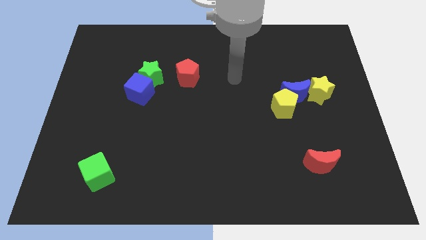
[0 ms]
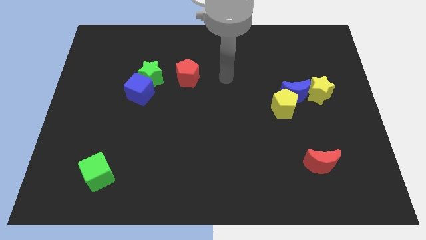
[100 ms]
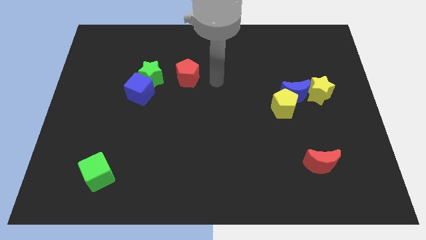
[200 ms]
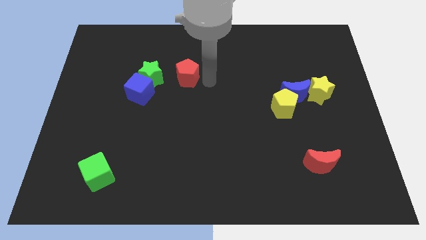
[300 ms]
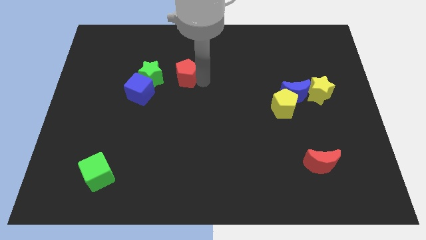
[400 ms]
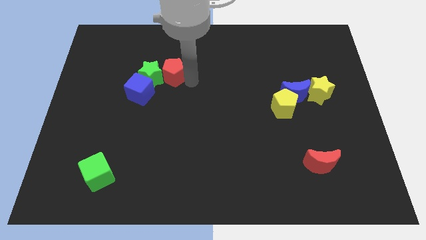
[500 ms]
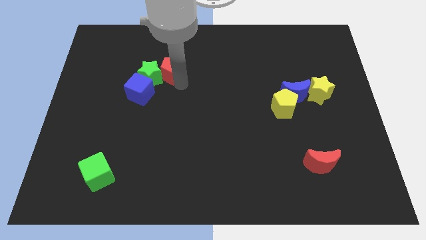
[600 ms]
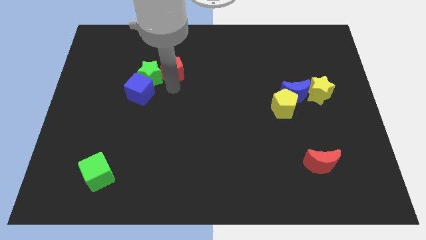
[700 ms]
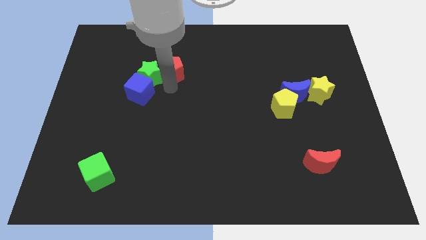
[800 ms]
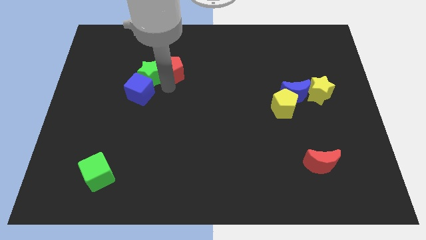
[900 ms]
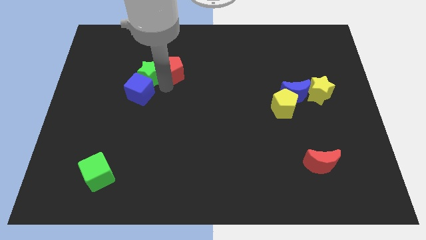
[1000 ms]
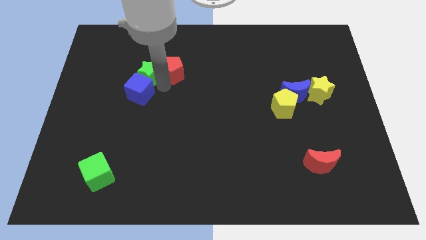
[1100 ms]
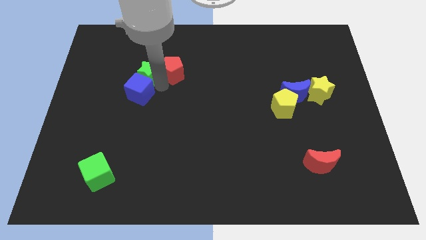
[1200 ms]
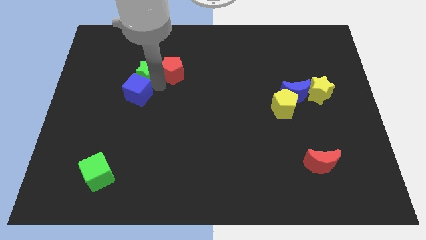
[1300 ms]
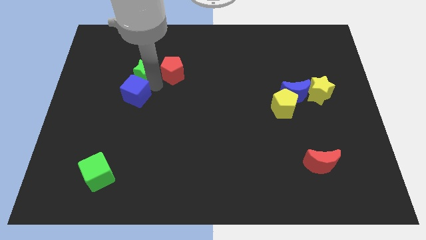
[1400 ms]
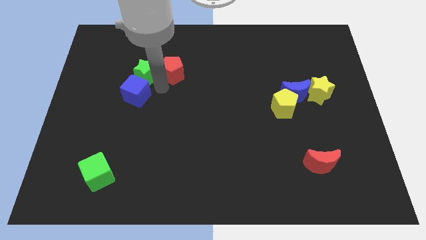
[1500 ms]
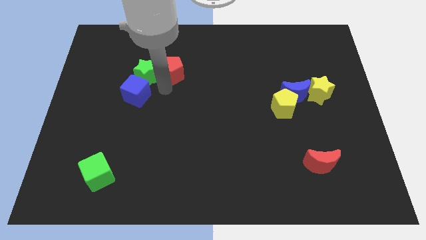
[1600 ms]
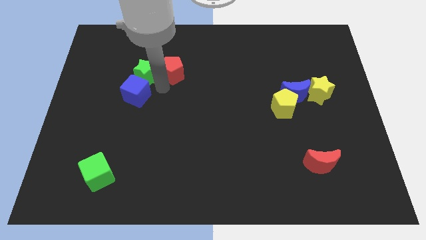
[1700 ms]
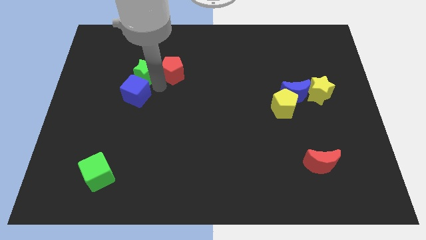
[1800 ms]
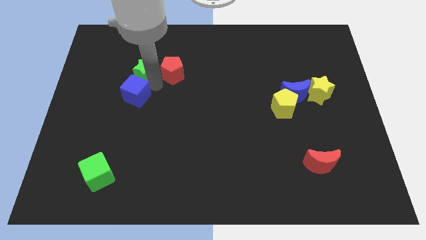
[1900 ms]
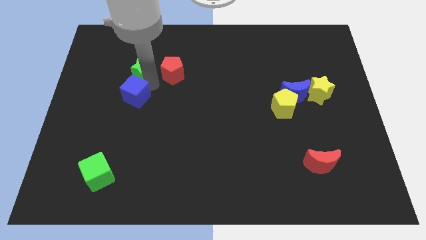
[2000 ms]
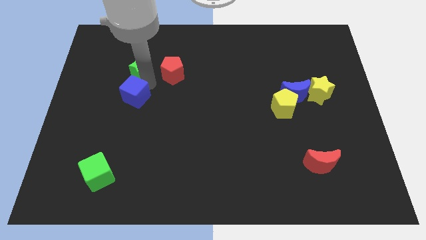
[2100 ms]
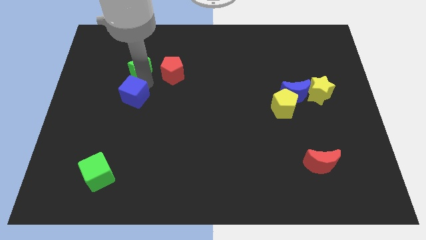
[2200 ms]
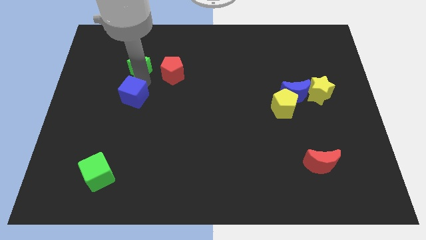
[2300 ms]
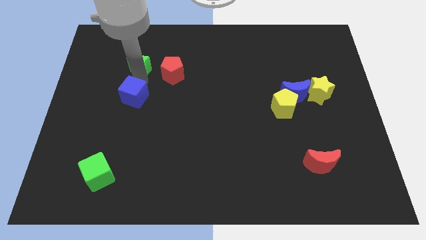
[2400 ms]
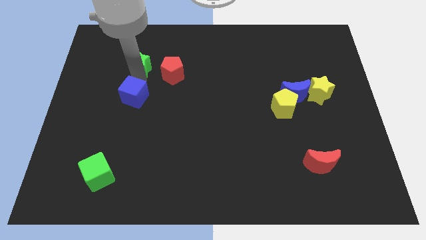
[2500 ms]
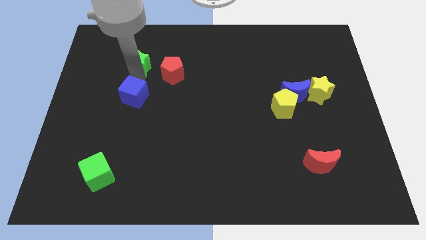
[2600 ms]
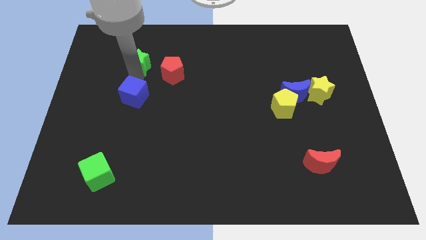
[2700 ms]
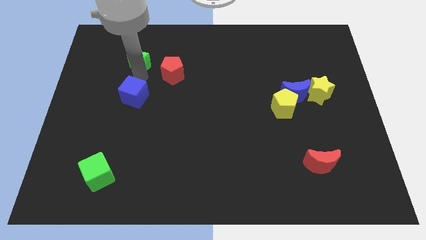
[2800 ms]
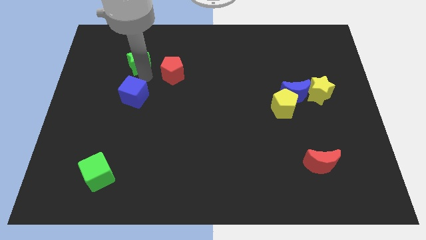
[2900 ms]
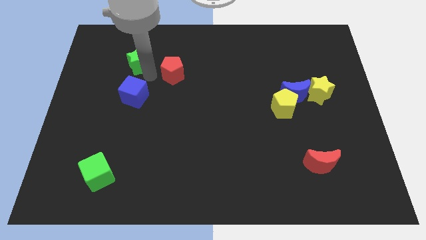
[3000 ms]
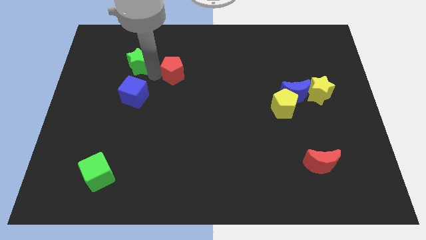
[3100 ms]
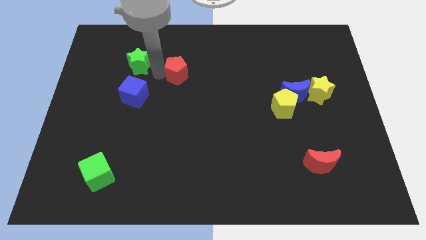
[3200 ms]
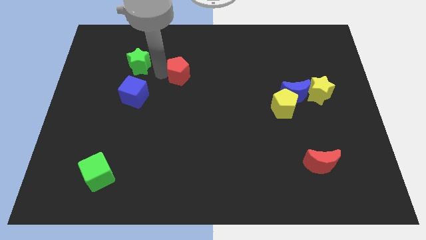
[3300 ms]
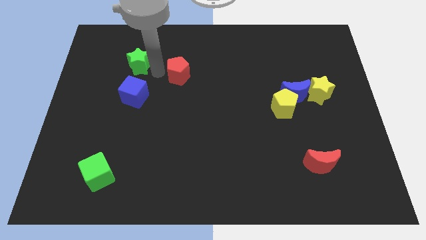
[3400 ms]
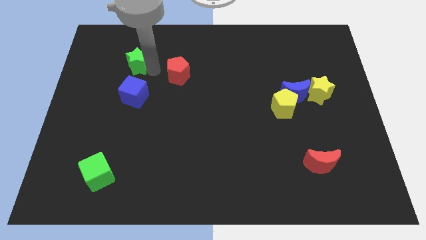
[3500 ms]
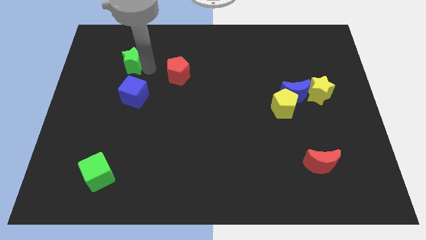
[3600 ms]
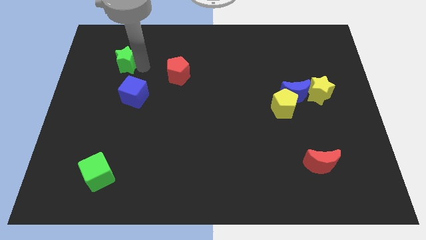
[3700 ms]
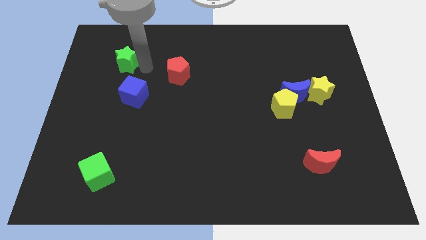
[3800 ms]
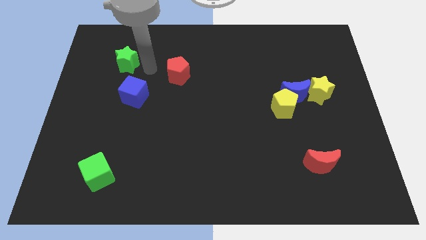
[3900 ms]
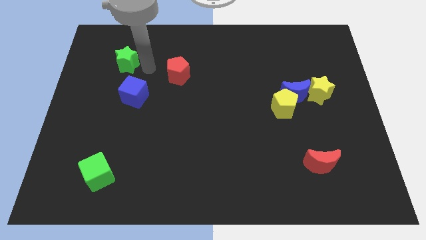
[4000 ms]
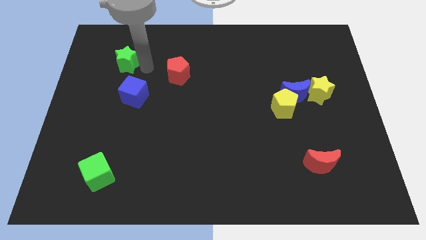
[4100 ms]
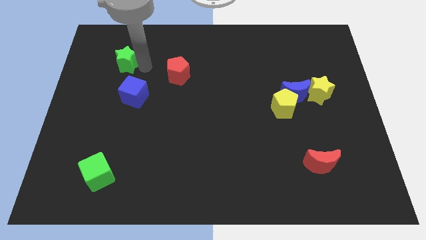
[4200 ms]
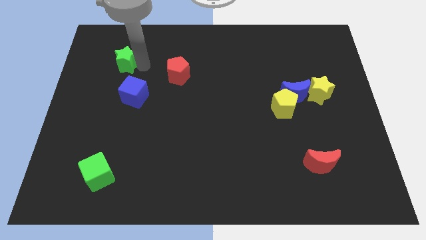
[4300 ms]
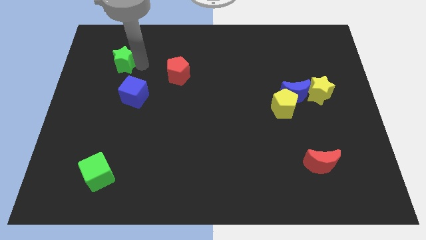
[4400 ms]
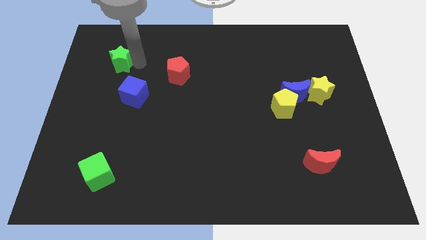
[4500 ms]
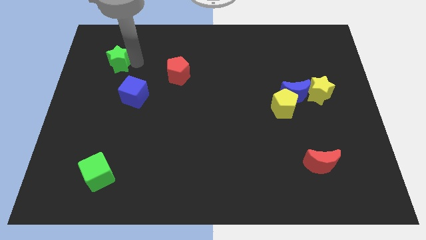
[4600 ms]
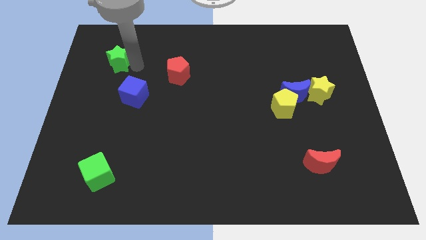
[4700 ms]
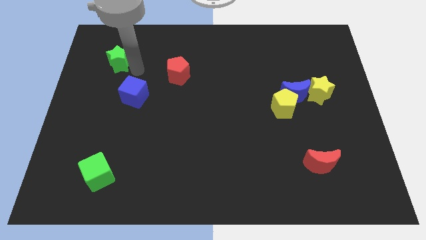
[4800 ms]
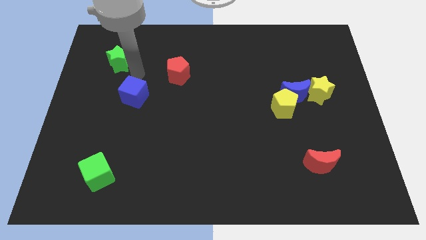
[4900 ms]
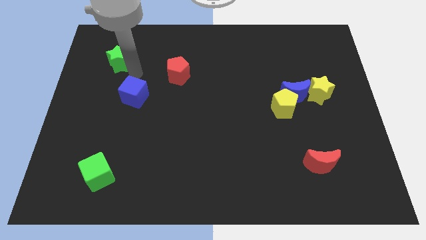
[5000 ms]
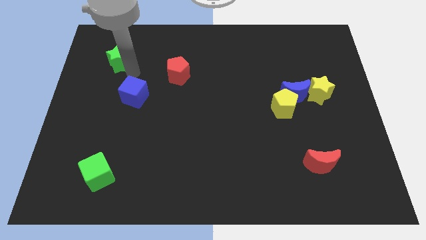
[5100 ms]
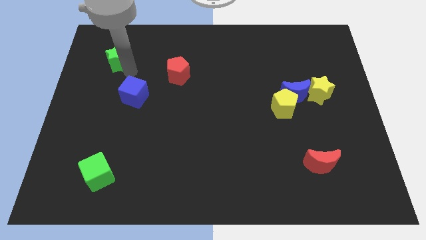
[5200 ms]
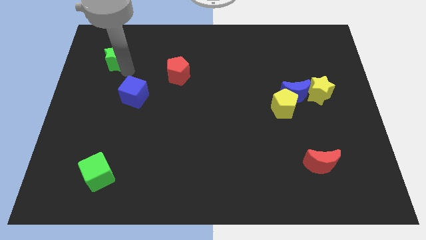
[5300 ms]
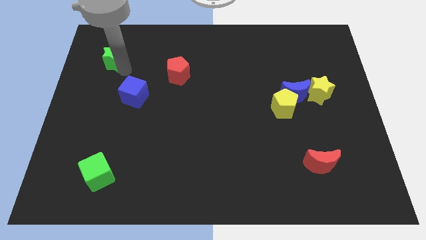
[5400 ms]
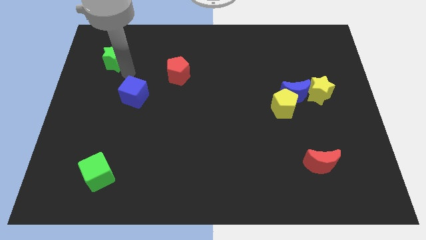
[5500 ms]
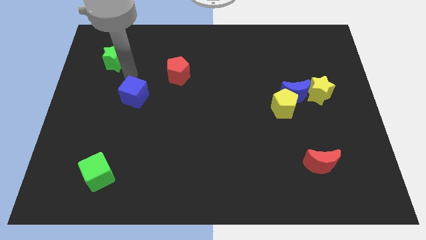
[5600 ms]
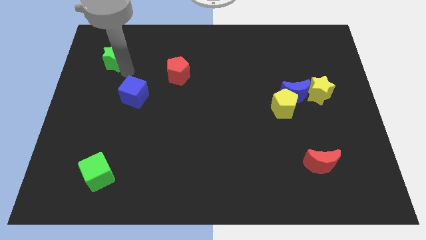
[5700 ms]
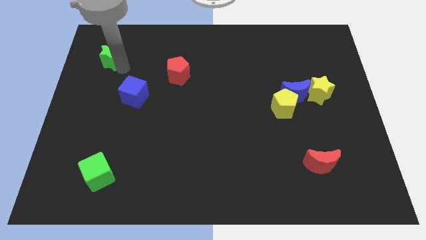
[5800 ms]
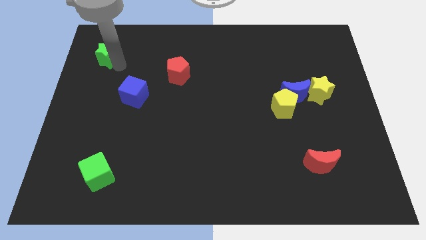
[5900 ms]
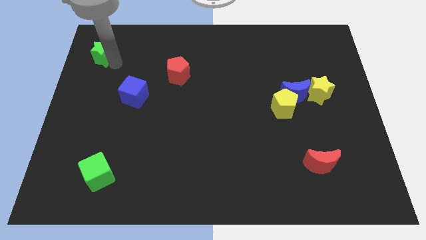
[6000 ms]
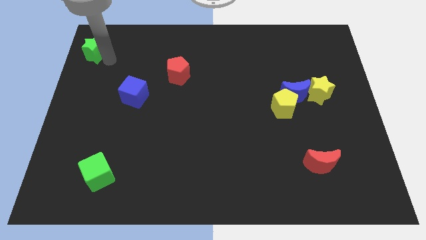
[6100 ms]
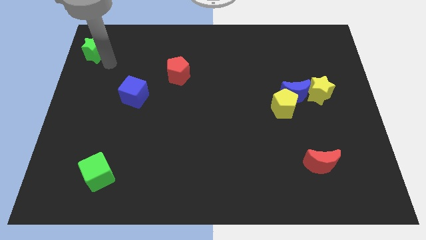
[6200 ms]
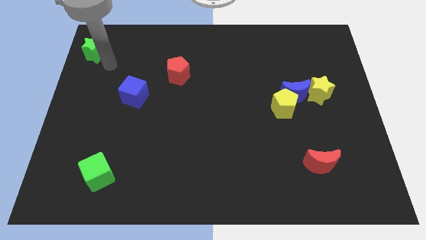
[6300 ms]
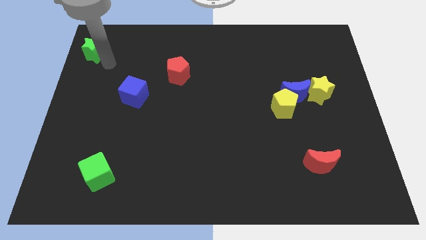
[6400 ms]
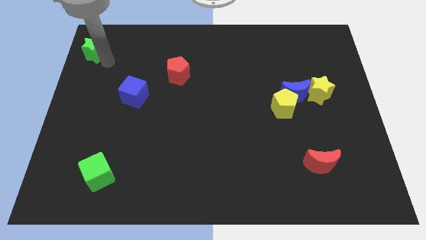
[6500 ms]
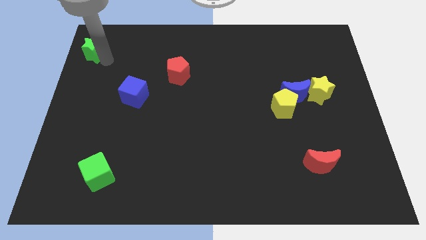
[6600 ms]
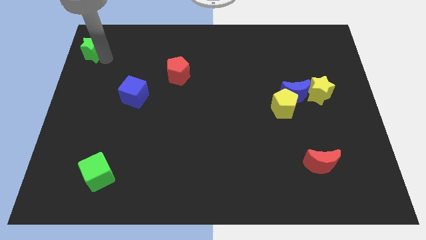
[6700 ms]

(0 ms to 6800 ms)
put the green star to the top left
